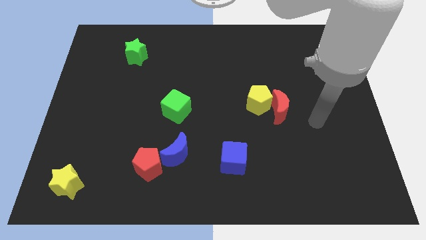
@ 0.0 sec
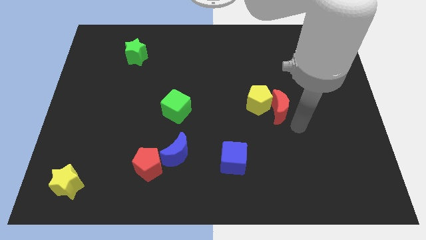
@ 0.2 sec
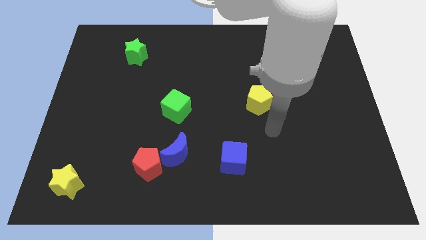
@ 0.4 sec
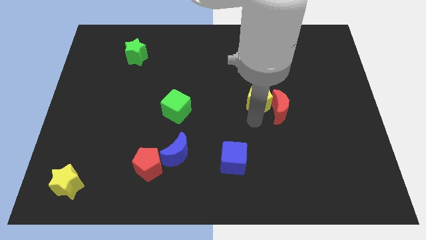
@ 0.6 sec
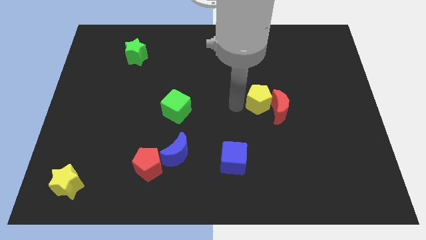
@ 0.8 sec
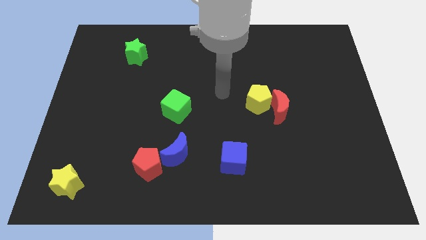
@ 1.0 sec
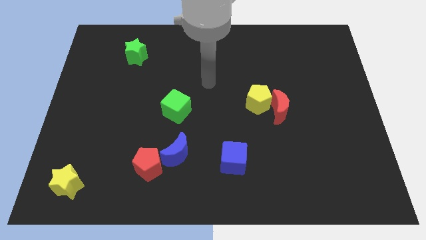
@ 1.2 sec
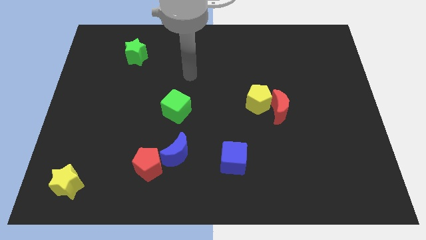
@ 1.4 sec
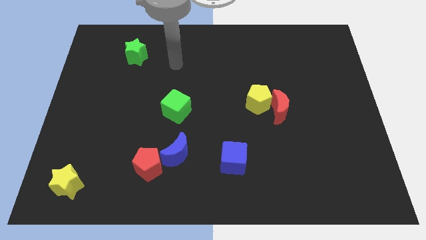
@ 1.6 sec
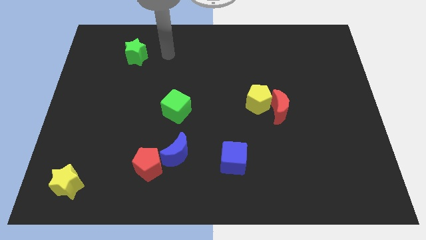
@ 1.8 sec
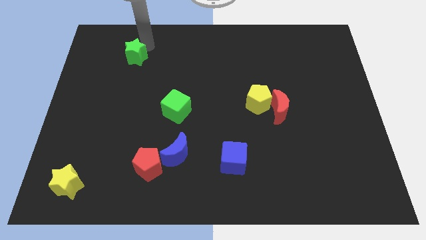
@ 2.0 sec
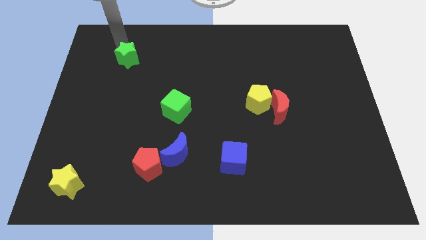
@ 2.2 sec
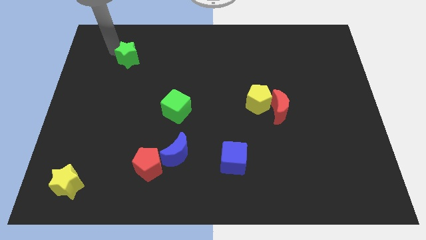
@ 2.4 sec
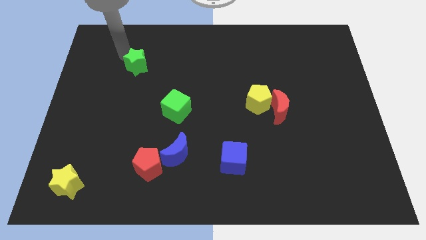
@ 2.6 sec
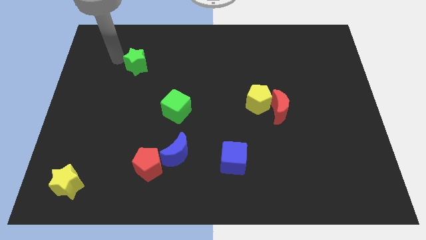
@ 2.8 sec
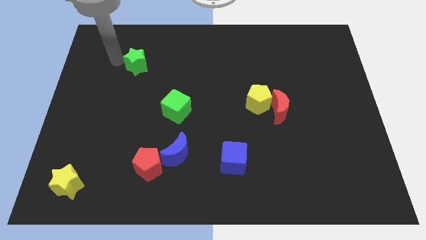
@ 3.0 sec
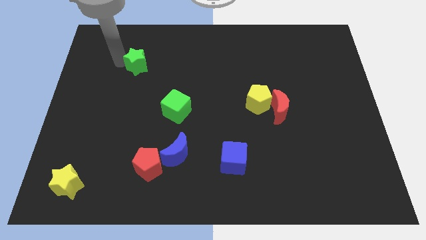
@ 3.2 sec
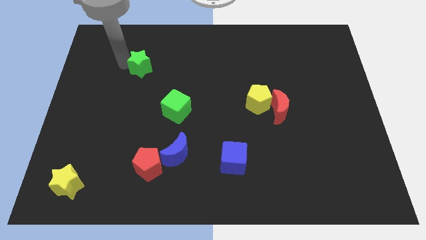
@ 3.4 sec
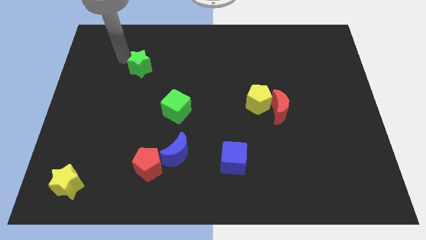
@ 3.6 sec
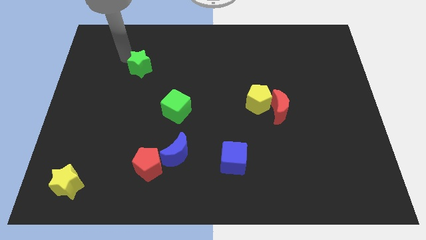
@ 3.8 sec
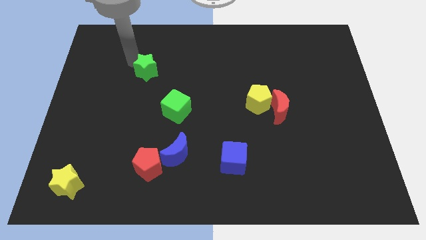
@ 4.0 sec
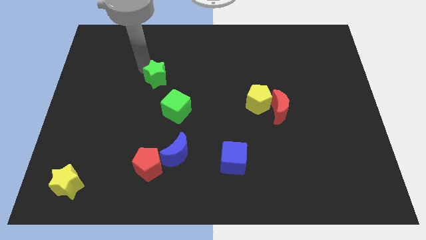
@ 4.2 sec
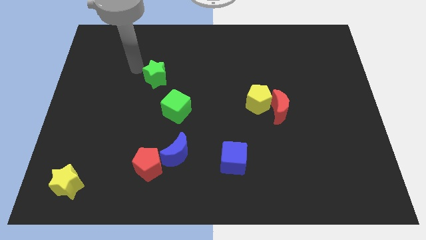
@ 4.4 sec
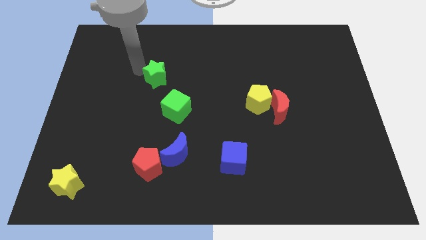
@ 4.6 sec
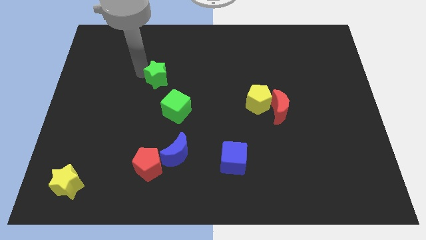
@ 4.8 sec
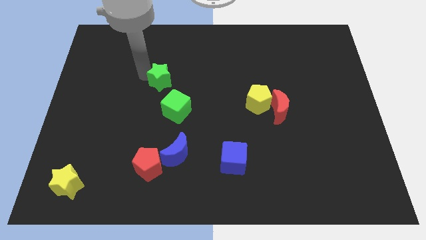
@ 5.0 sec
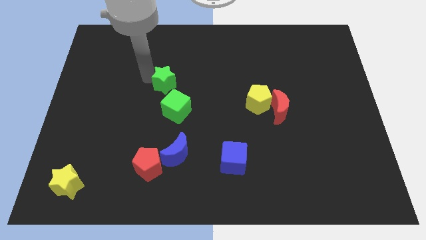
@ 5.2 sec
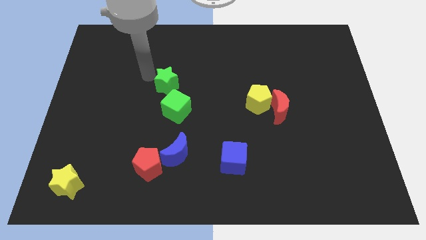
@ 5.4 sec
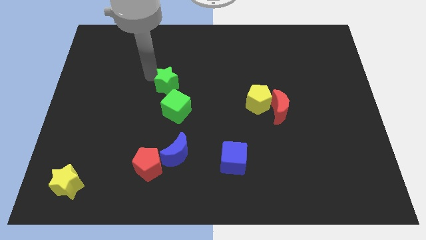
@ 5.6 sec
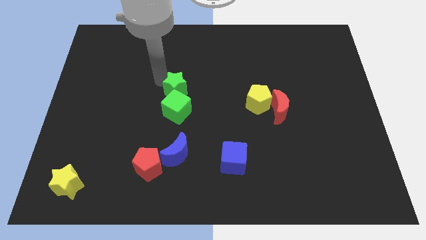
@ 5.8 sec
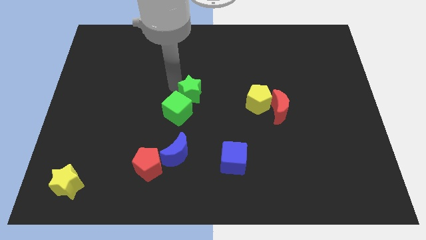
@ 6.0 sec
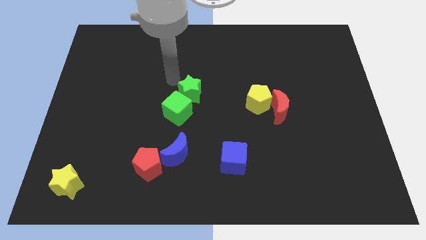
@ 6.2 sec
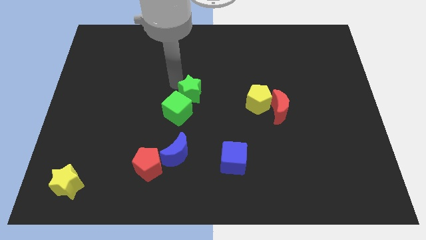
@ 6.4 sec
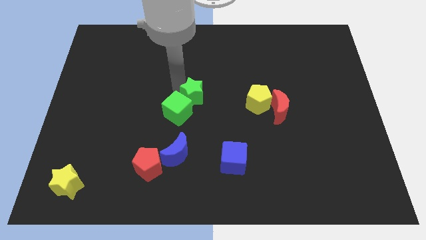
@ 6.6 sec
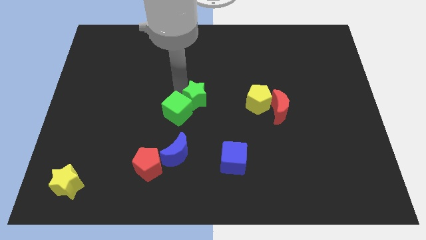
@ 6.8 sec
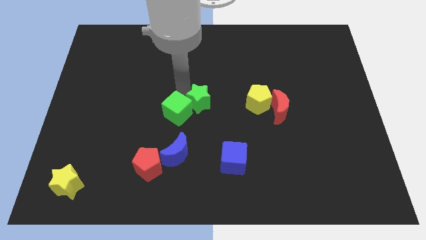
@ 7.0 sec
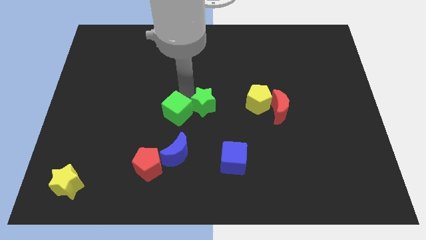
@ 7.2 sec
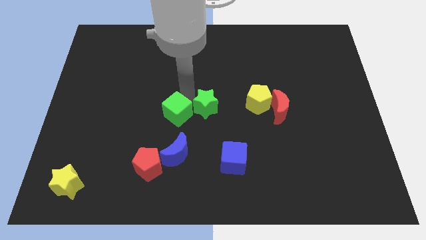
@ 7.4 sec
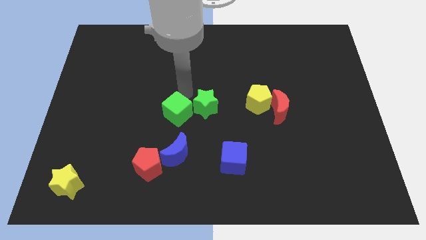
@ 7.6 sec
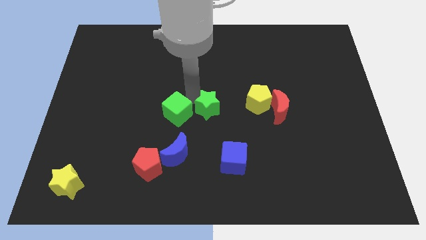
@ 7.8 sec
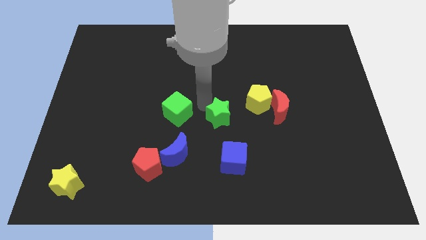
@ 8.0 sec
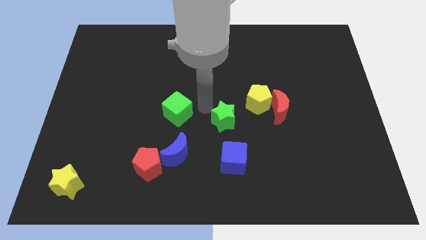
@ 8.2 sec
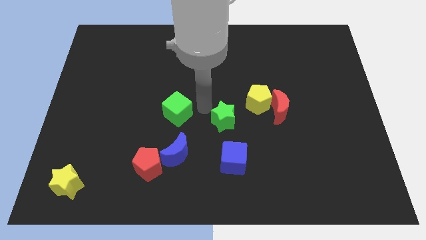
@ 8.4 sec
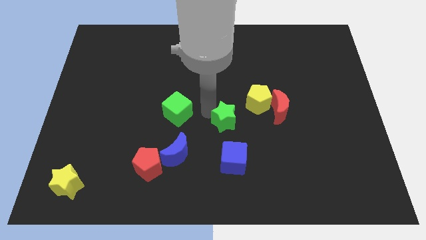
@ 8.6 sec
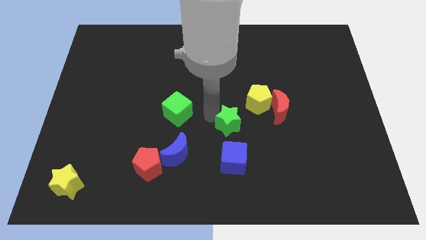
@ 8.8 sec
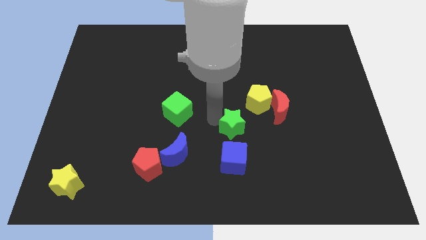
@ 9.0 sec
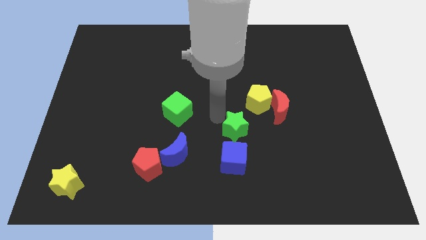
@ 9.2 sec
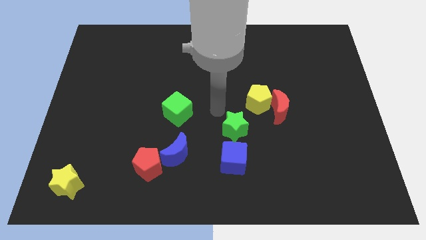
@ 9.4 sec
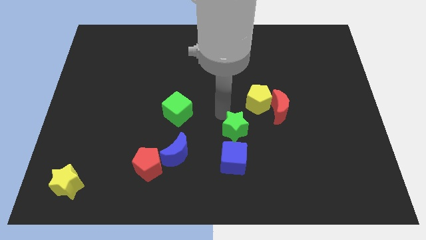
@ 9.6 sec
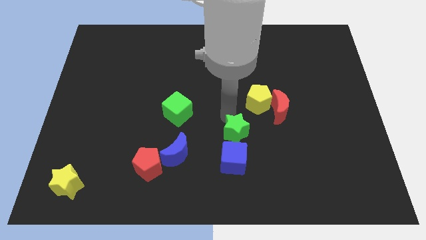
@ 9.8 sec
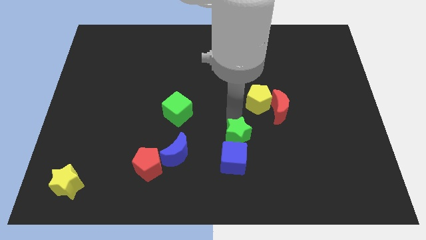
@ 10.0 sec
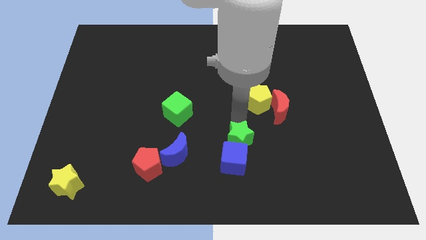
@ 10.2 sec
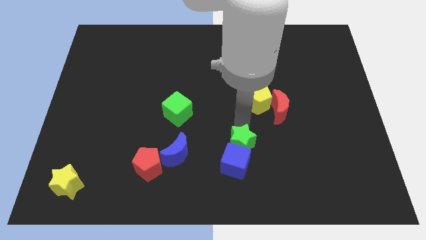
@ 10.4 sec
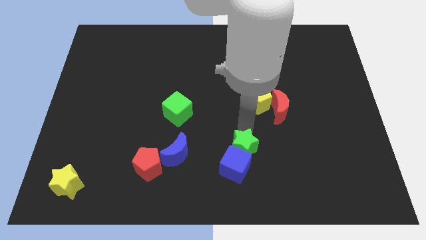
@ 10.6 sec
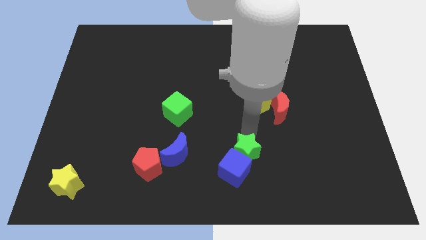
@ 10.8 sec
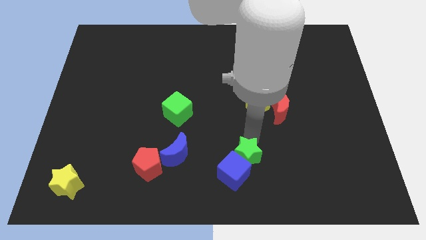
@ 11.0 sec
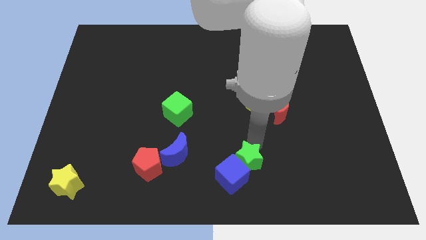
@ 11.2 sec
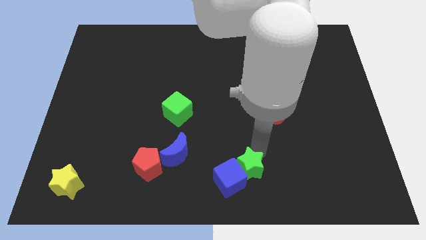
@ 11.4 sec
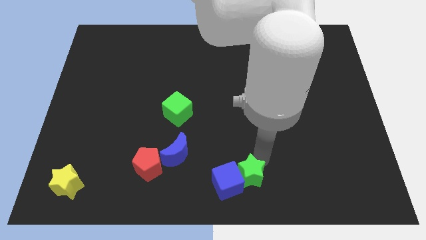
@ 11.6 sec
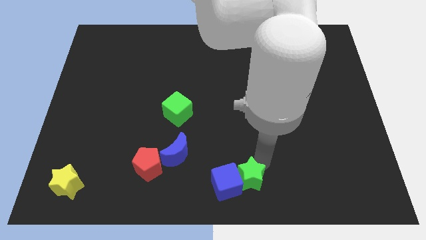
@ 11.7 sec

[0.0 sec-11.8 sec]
move the green star to the bottom right of the blue cube

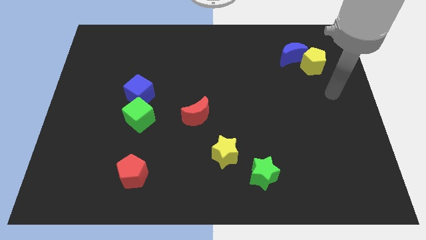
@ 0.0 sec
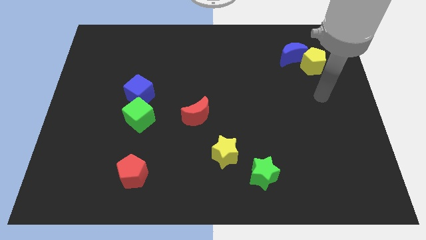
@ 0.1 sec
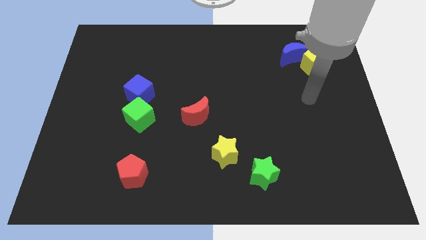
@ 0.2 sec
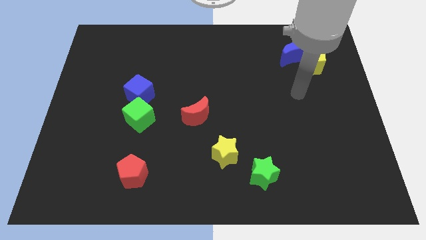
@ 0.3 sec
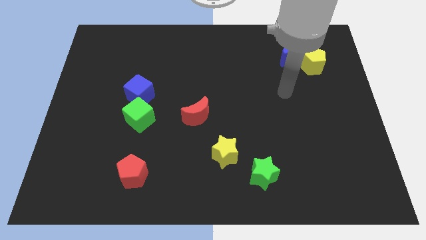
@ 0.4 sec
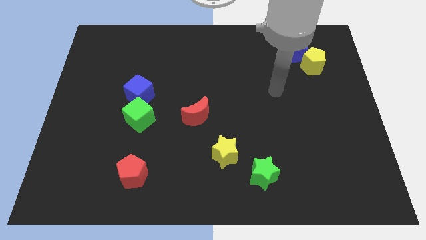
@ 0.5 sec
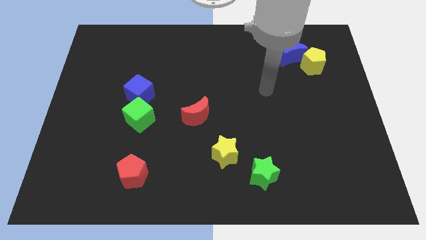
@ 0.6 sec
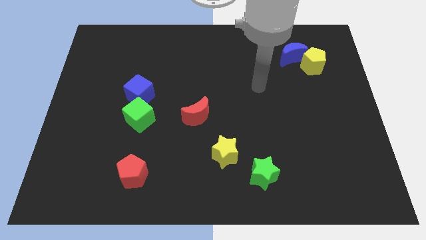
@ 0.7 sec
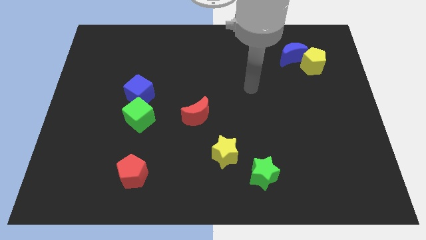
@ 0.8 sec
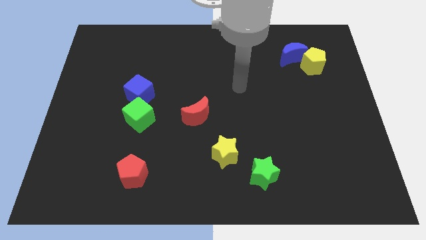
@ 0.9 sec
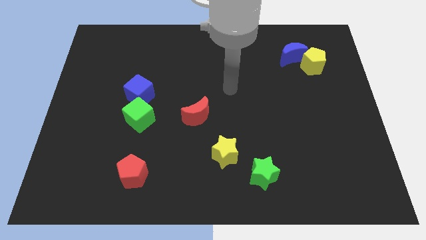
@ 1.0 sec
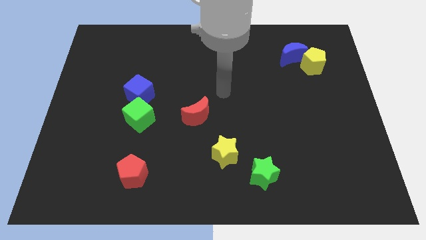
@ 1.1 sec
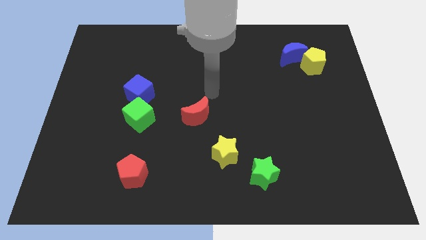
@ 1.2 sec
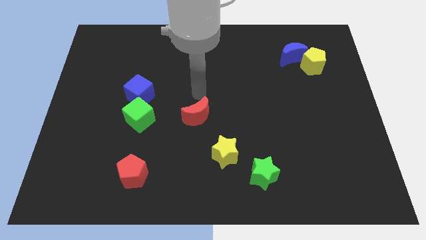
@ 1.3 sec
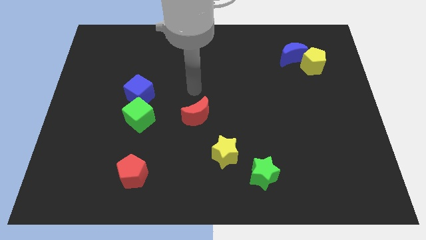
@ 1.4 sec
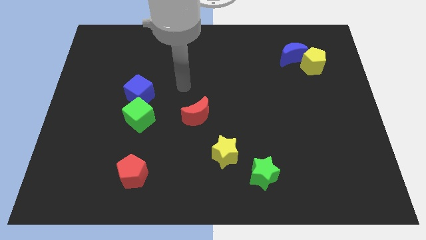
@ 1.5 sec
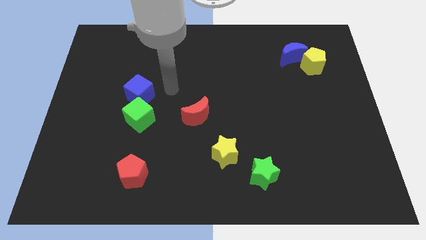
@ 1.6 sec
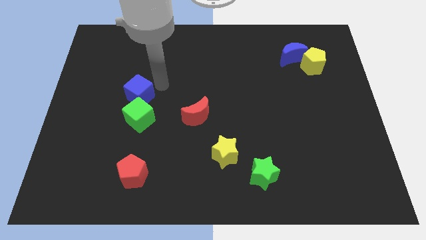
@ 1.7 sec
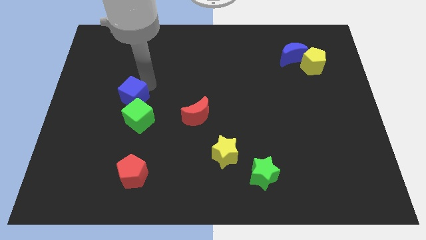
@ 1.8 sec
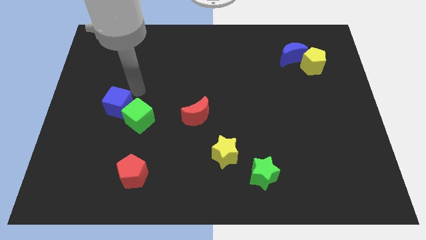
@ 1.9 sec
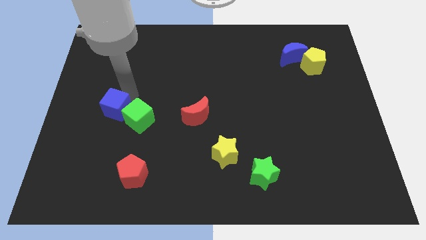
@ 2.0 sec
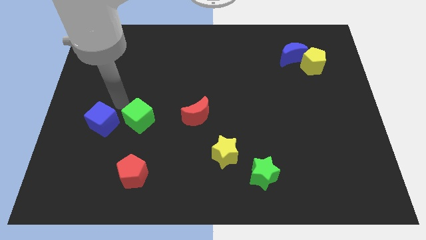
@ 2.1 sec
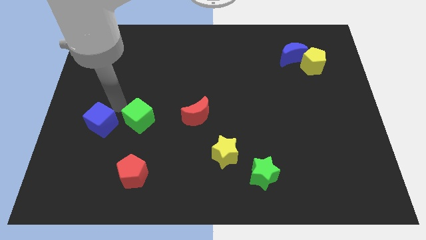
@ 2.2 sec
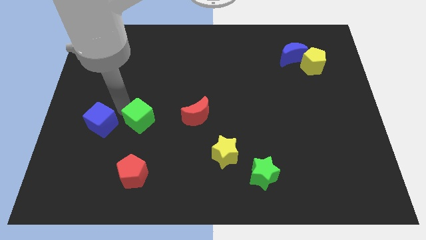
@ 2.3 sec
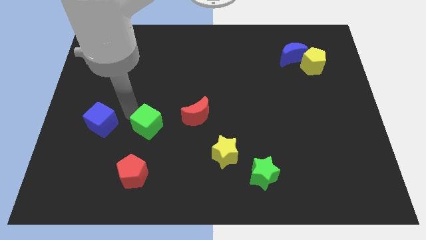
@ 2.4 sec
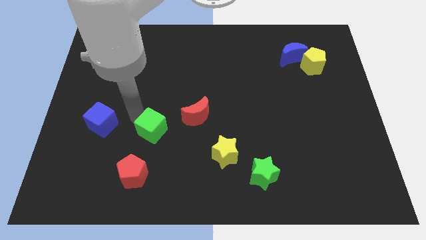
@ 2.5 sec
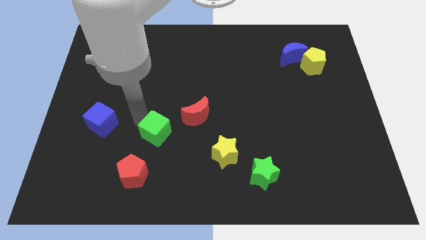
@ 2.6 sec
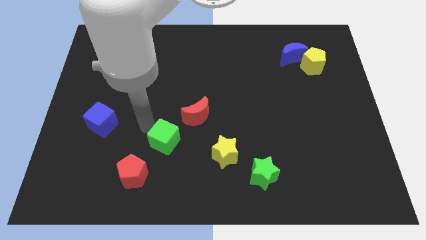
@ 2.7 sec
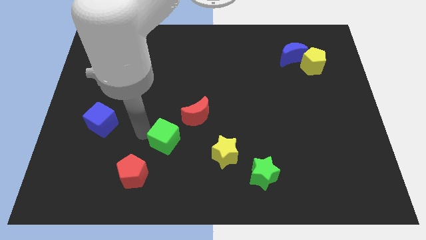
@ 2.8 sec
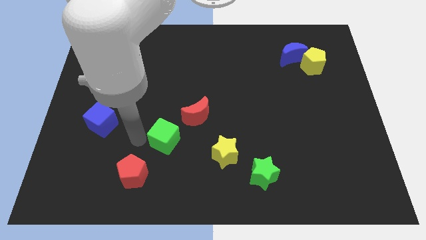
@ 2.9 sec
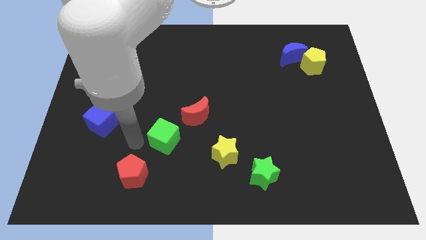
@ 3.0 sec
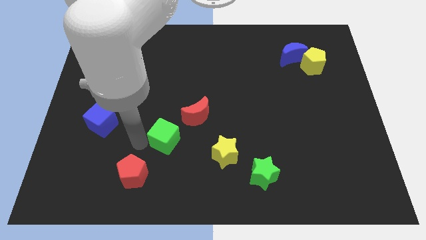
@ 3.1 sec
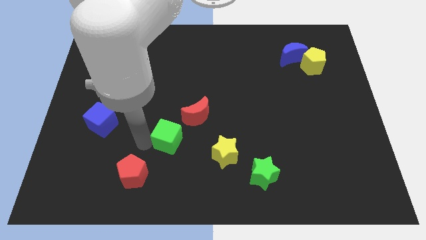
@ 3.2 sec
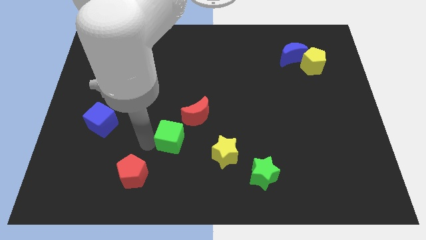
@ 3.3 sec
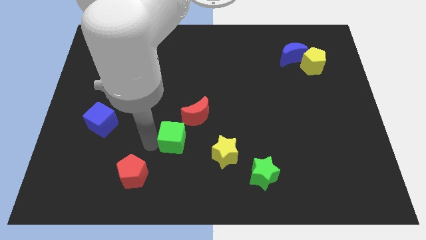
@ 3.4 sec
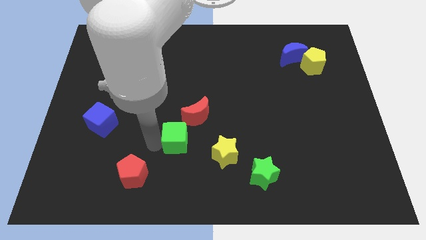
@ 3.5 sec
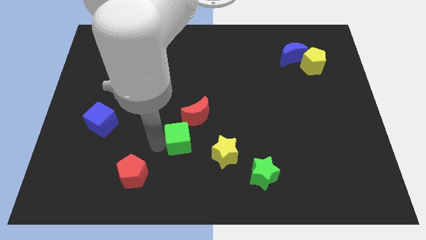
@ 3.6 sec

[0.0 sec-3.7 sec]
move the green cube diagonally up and to the left of the yellow star
